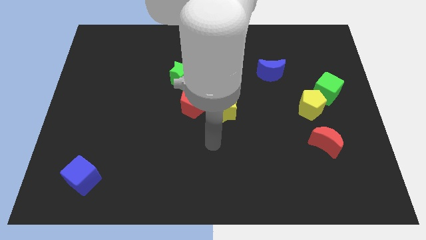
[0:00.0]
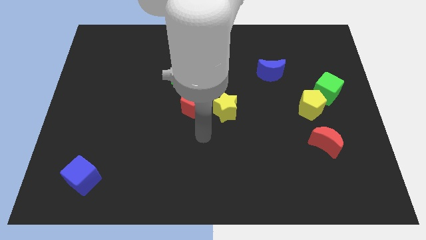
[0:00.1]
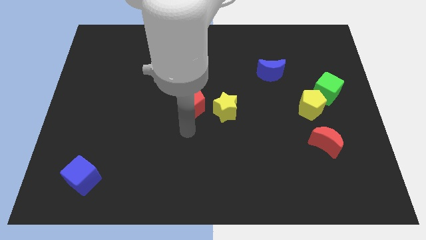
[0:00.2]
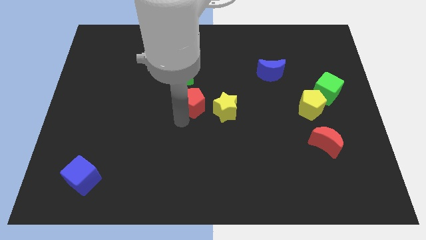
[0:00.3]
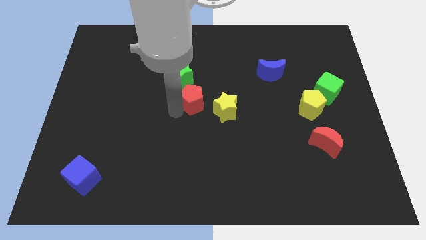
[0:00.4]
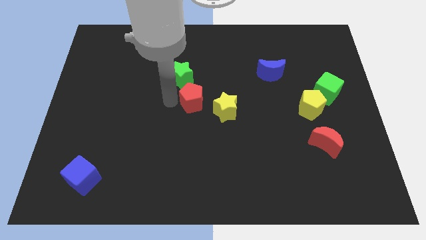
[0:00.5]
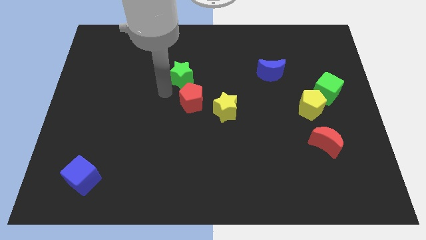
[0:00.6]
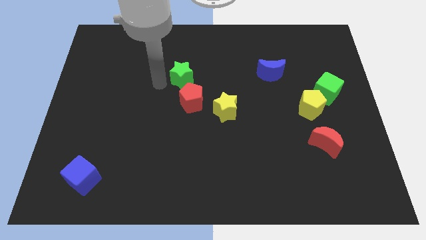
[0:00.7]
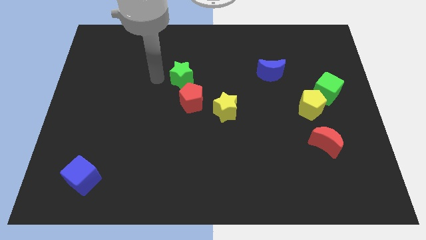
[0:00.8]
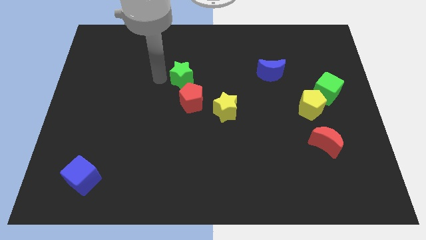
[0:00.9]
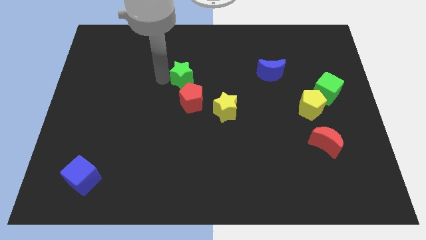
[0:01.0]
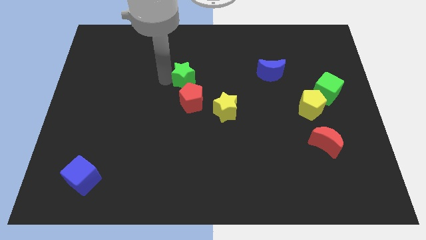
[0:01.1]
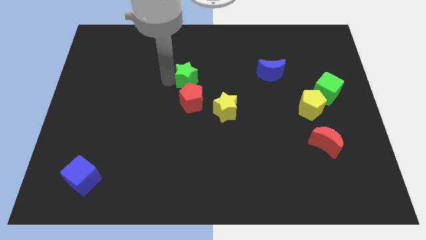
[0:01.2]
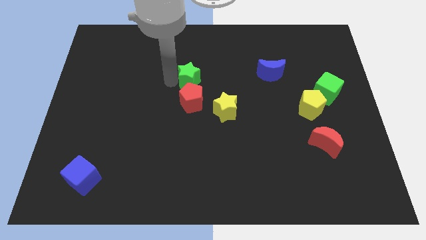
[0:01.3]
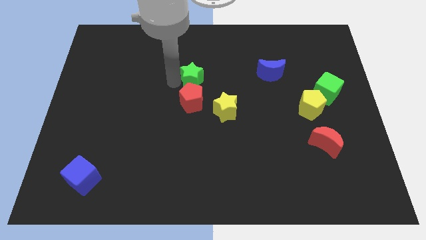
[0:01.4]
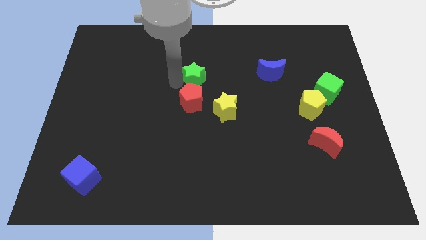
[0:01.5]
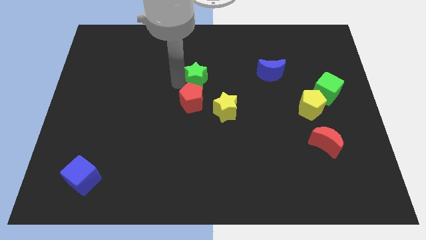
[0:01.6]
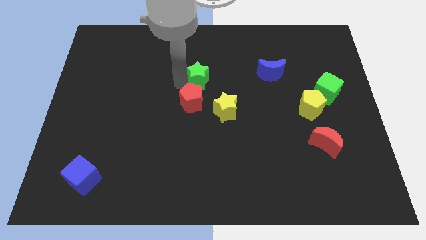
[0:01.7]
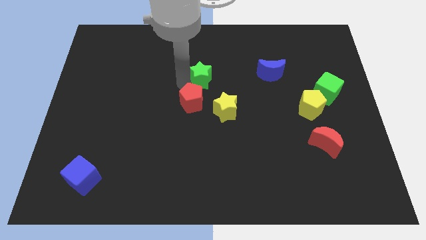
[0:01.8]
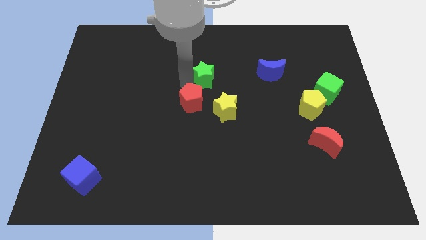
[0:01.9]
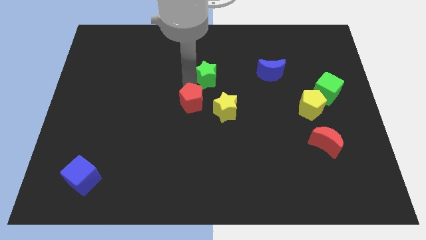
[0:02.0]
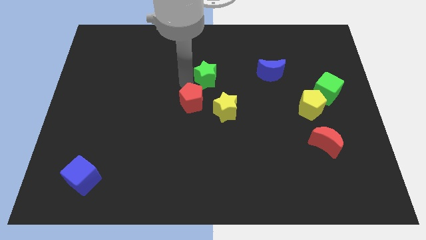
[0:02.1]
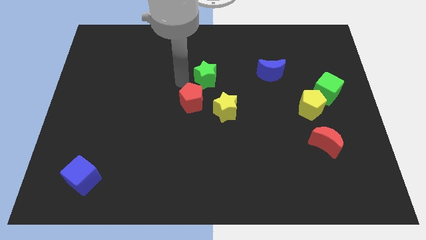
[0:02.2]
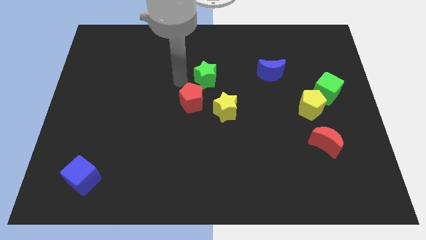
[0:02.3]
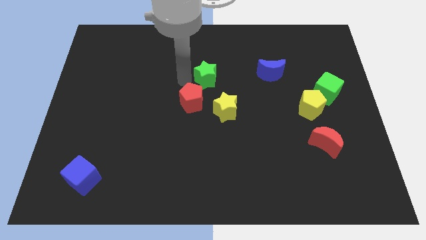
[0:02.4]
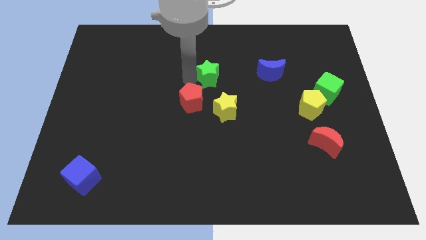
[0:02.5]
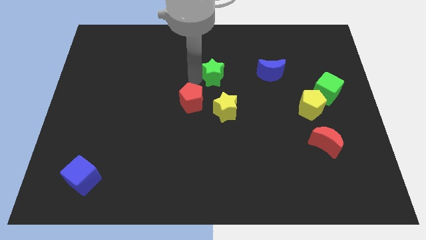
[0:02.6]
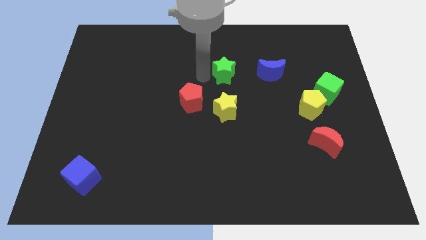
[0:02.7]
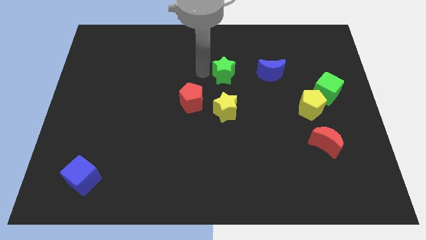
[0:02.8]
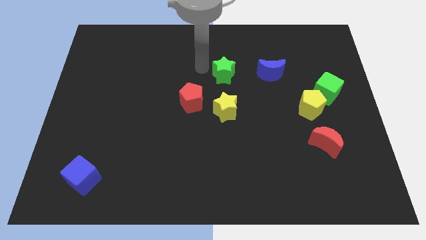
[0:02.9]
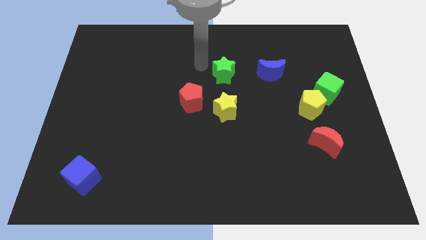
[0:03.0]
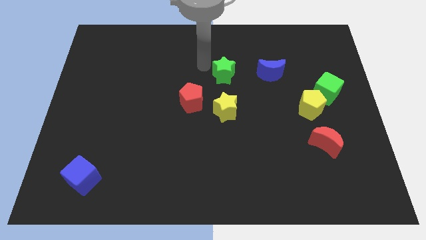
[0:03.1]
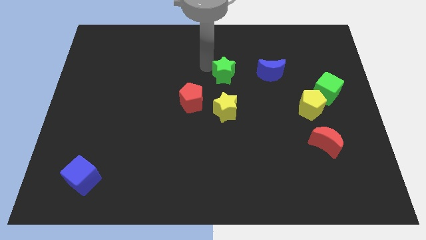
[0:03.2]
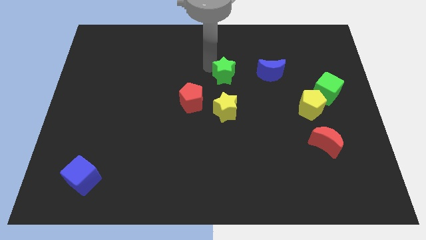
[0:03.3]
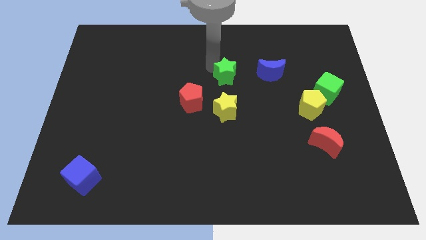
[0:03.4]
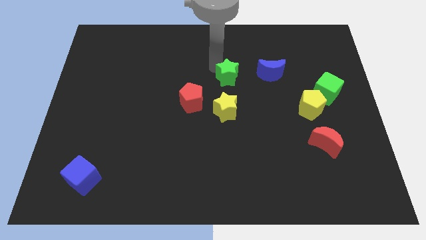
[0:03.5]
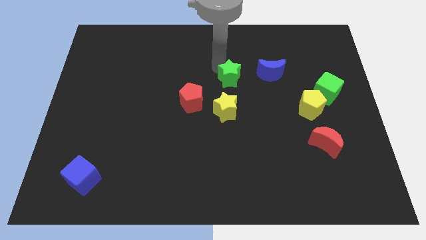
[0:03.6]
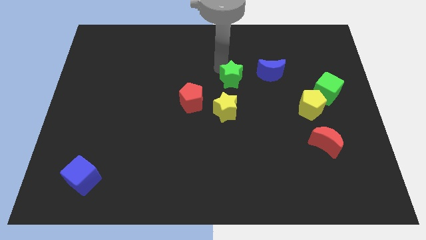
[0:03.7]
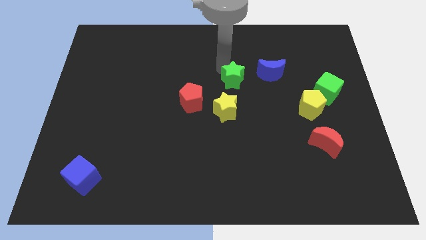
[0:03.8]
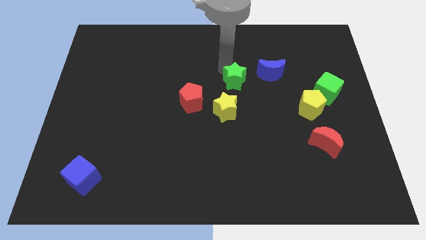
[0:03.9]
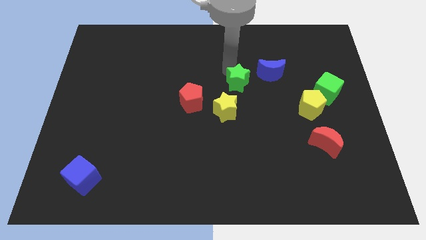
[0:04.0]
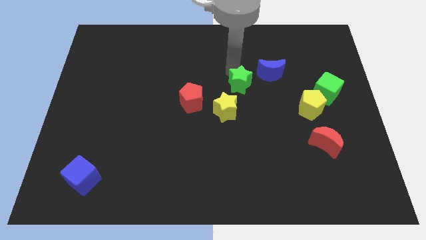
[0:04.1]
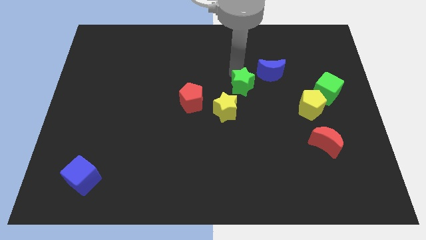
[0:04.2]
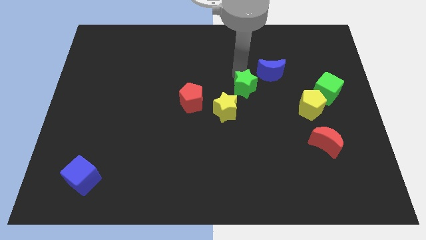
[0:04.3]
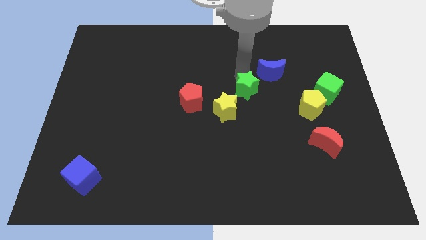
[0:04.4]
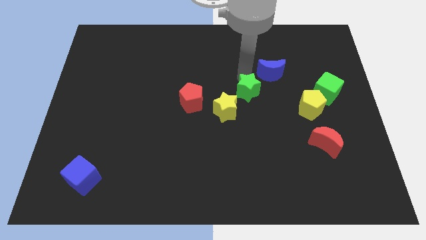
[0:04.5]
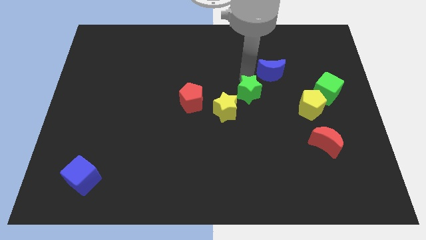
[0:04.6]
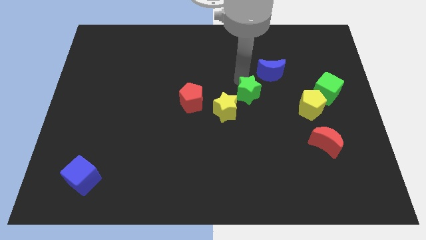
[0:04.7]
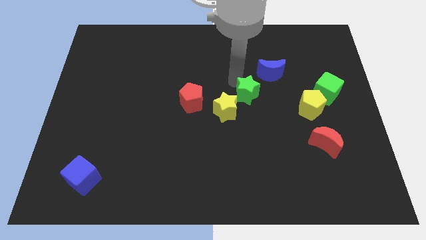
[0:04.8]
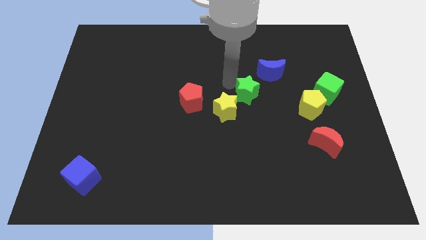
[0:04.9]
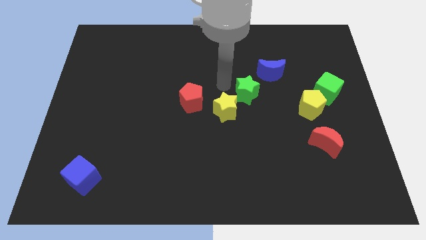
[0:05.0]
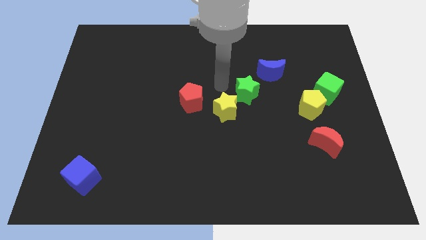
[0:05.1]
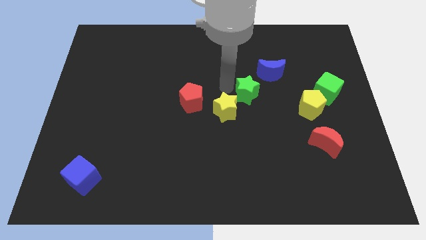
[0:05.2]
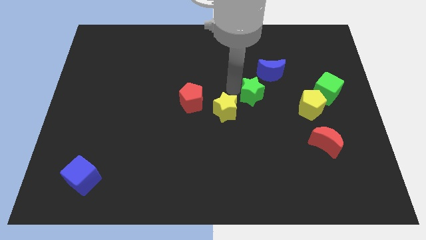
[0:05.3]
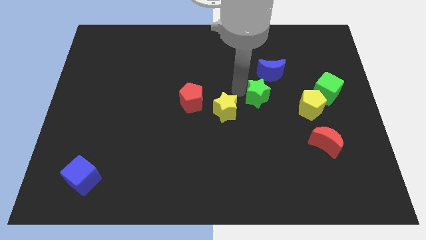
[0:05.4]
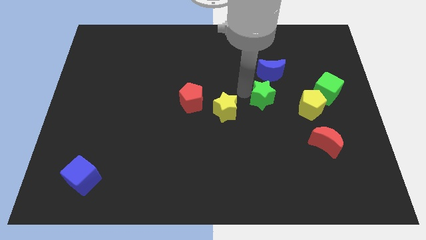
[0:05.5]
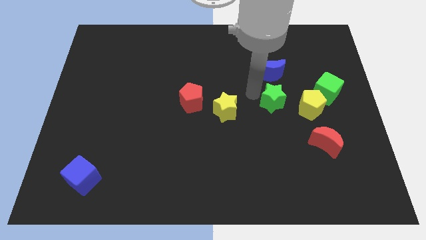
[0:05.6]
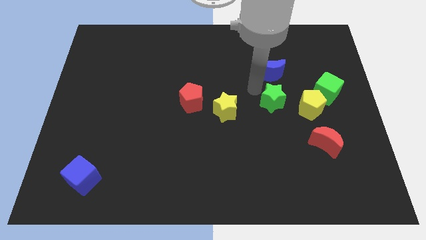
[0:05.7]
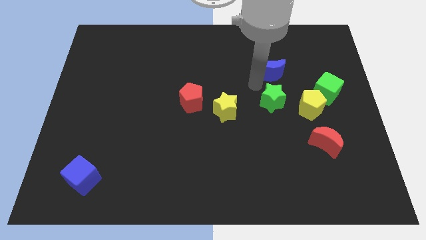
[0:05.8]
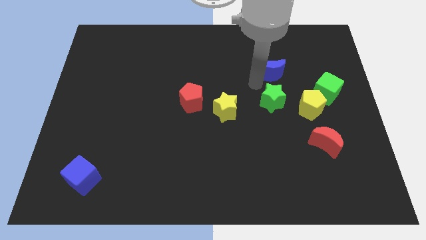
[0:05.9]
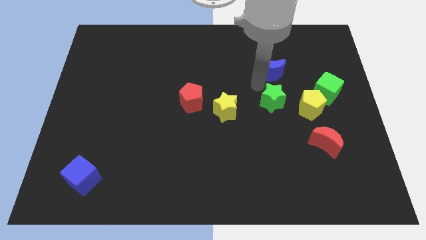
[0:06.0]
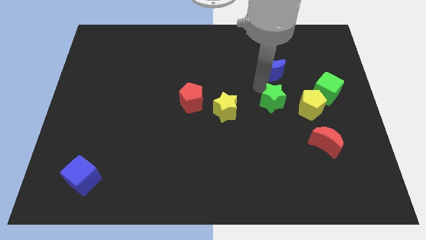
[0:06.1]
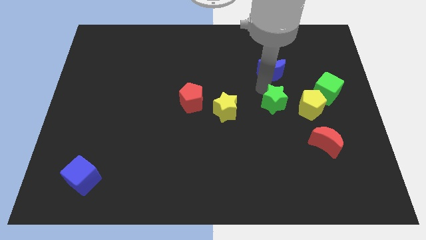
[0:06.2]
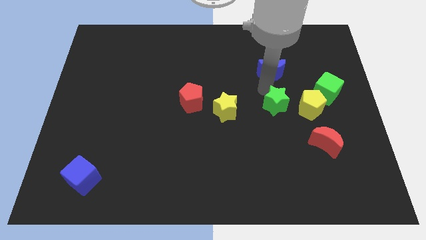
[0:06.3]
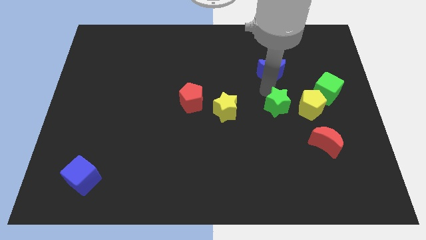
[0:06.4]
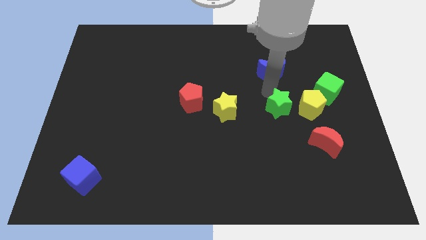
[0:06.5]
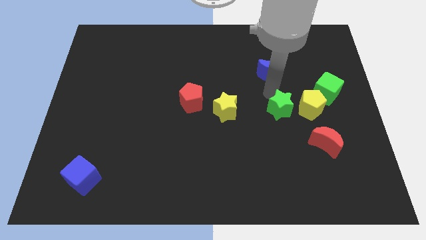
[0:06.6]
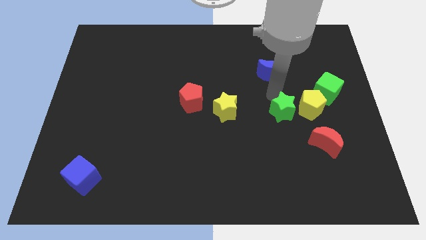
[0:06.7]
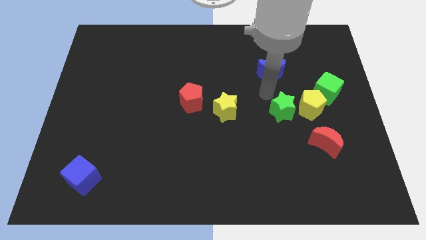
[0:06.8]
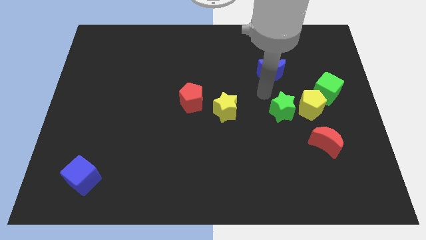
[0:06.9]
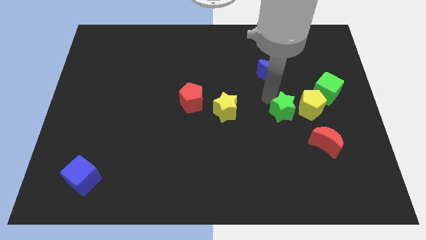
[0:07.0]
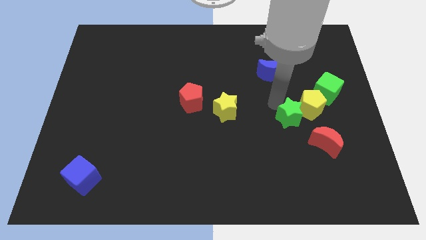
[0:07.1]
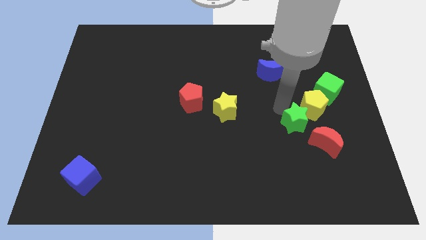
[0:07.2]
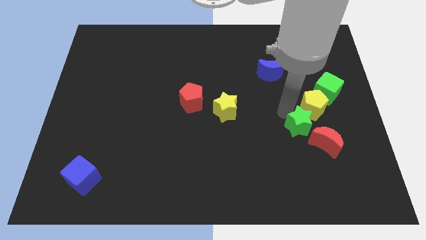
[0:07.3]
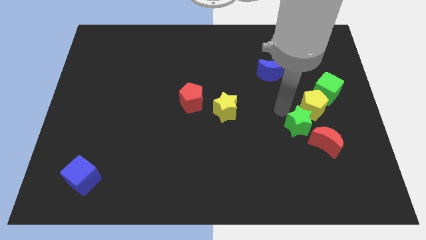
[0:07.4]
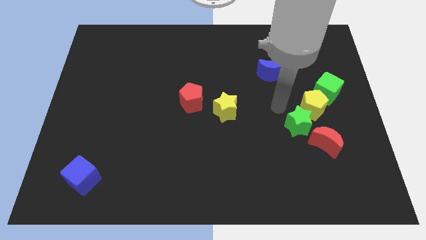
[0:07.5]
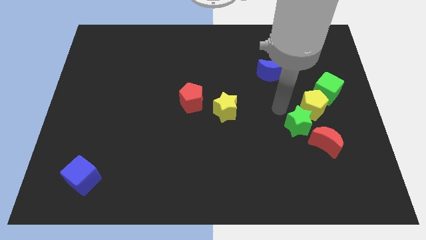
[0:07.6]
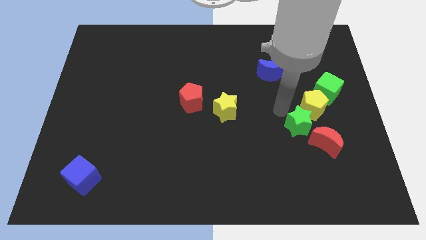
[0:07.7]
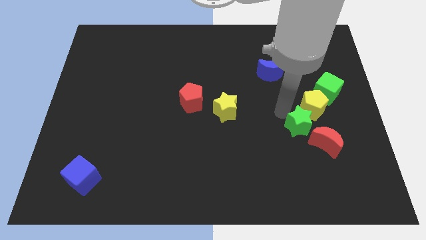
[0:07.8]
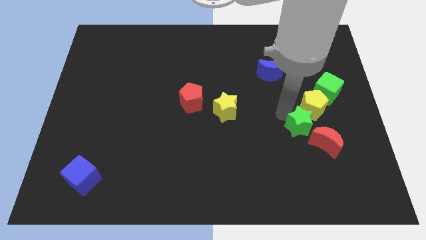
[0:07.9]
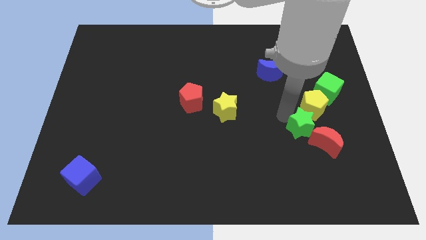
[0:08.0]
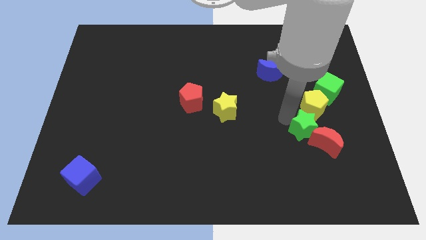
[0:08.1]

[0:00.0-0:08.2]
push the green star next to the red moon
